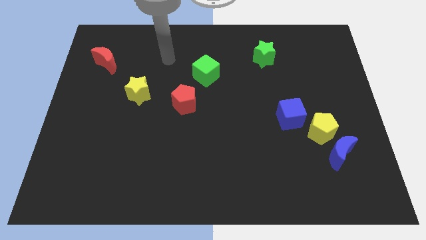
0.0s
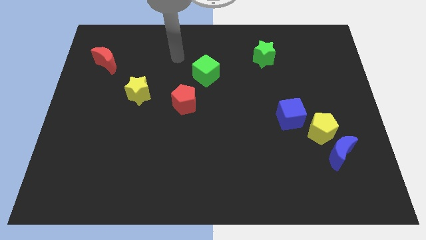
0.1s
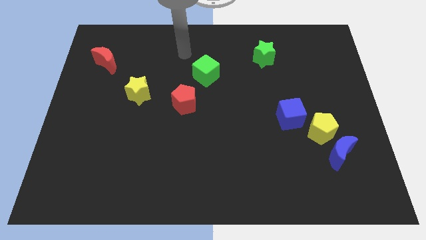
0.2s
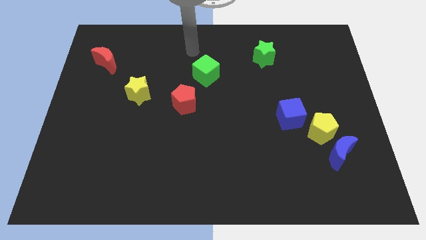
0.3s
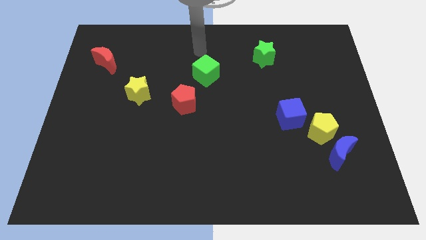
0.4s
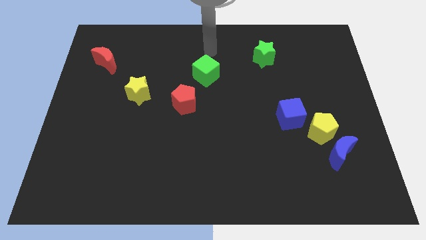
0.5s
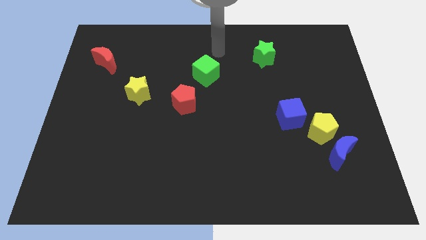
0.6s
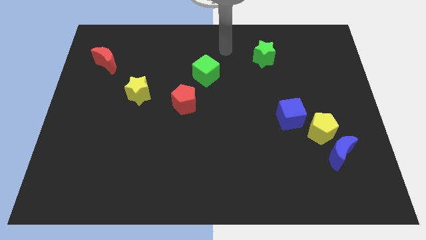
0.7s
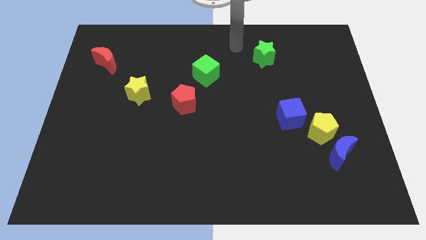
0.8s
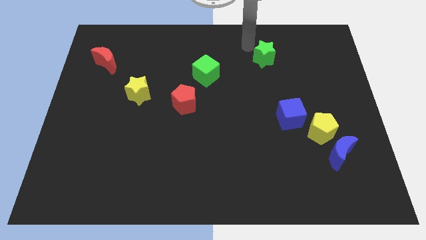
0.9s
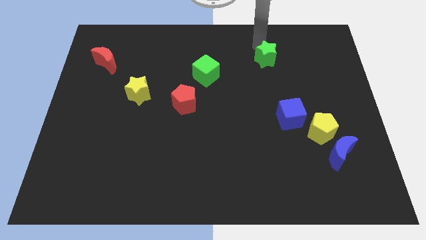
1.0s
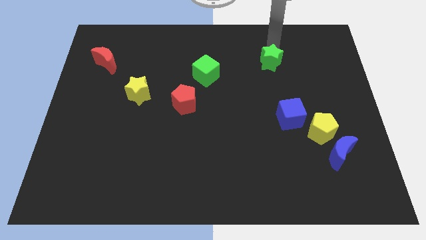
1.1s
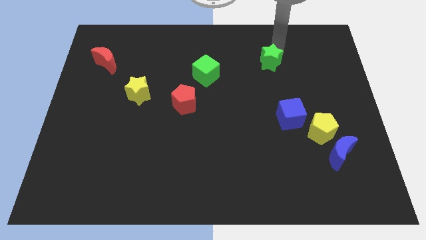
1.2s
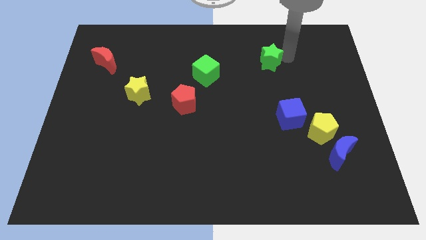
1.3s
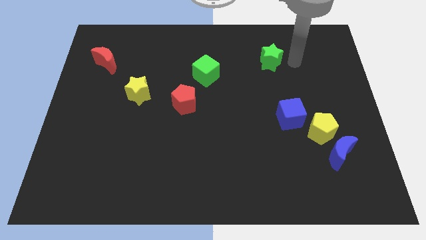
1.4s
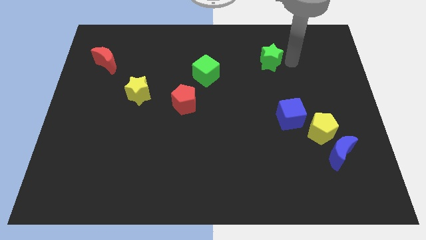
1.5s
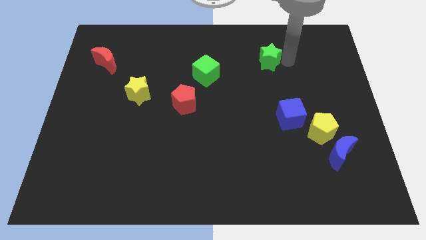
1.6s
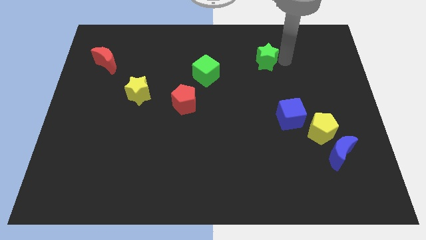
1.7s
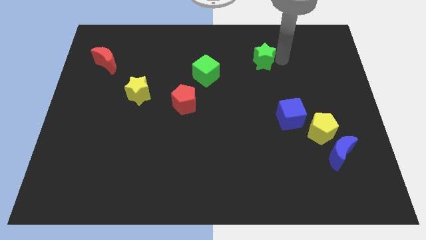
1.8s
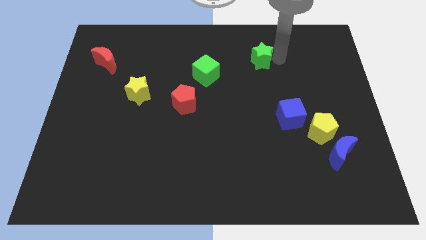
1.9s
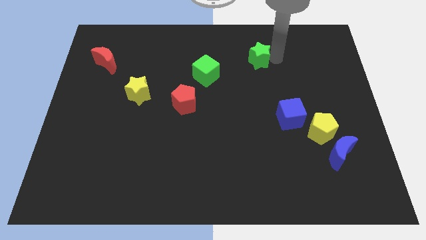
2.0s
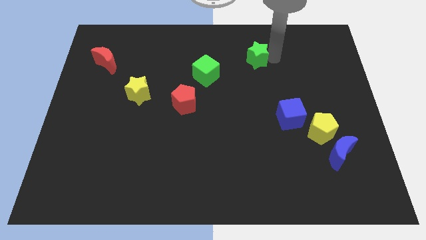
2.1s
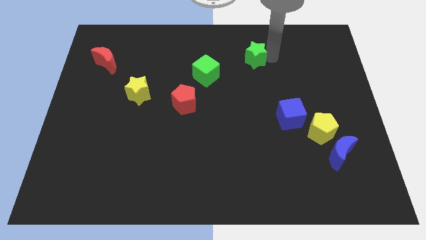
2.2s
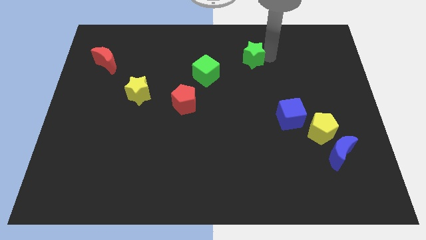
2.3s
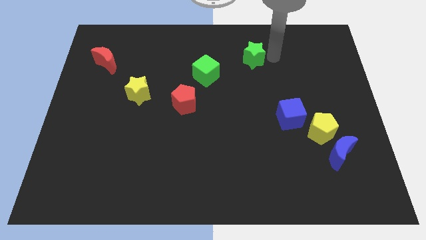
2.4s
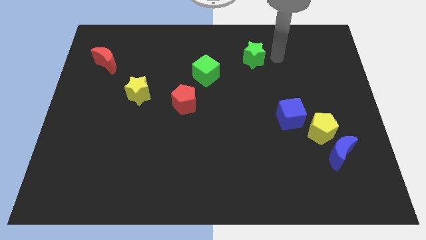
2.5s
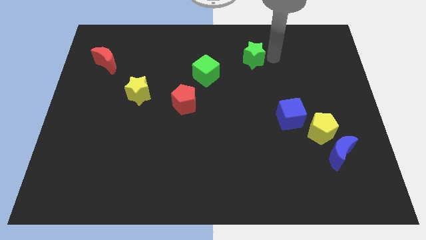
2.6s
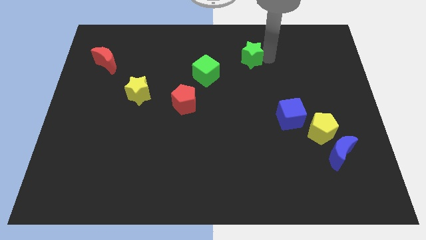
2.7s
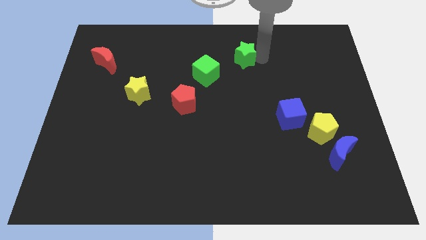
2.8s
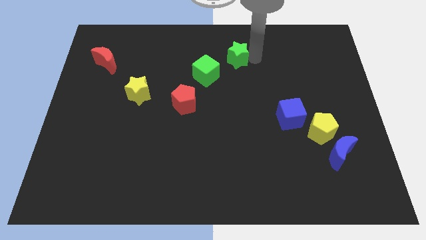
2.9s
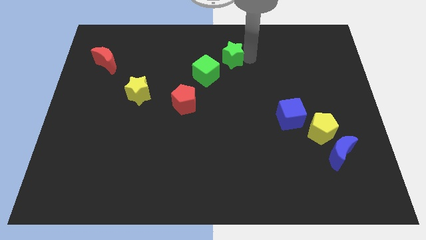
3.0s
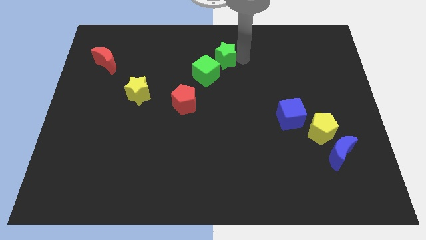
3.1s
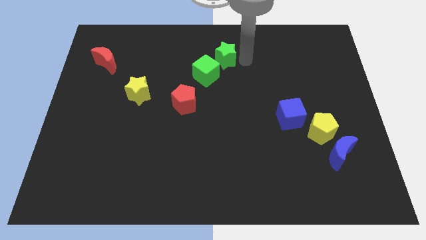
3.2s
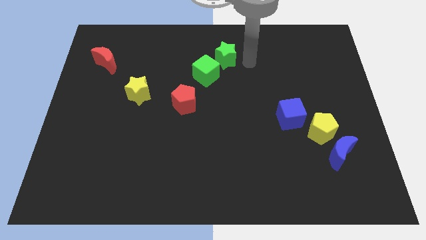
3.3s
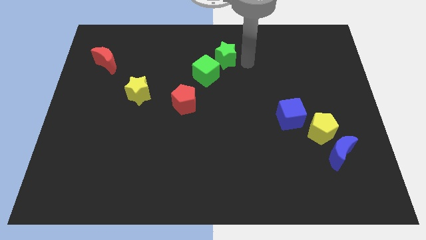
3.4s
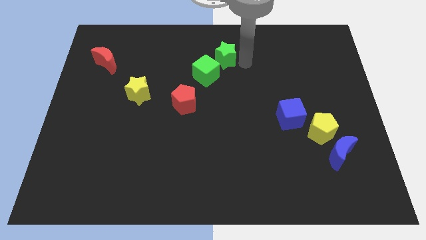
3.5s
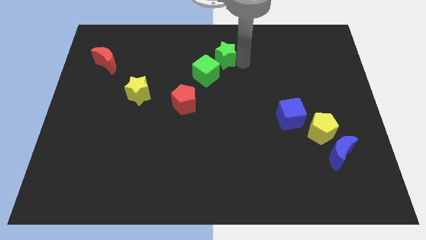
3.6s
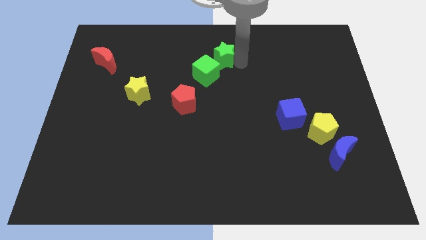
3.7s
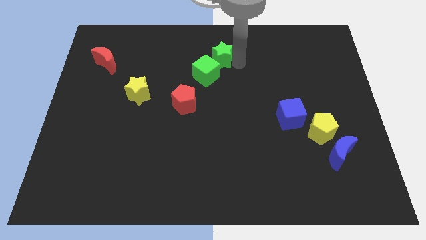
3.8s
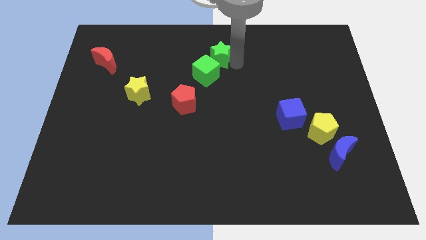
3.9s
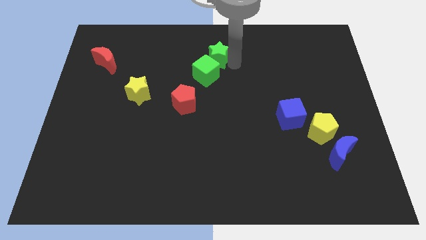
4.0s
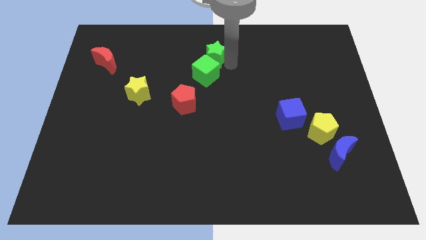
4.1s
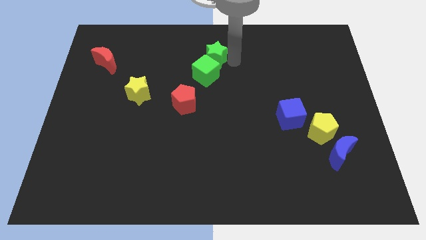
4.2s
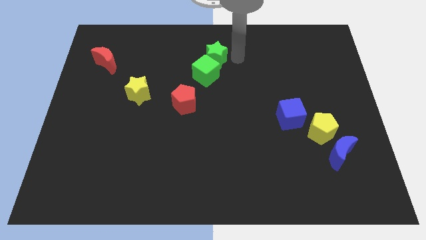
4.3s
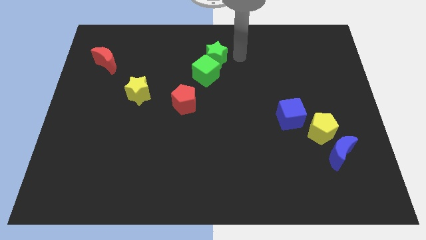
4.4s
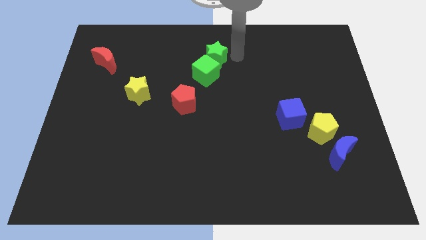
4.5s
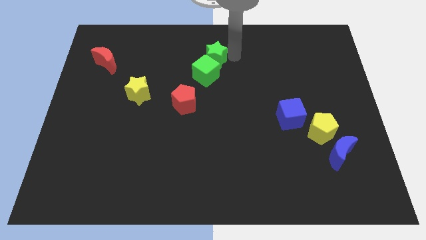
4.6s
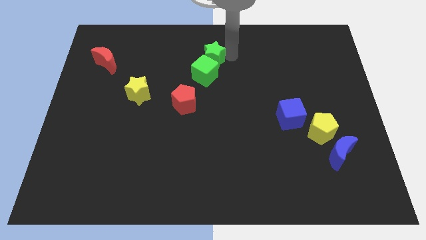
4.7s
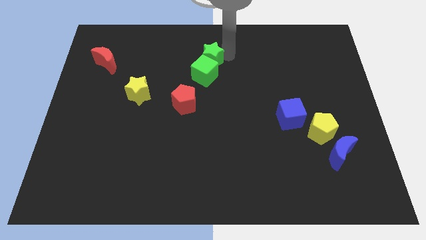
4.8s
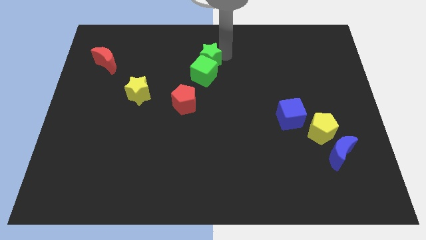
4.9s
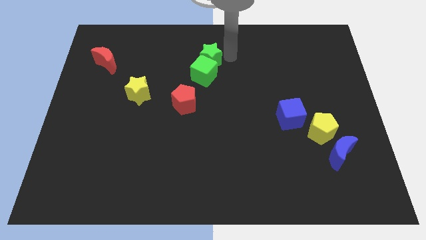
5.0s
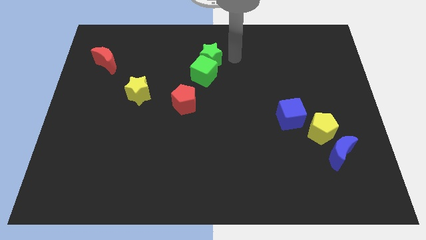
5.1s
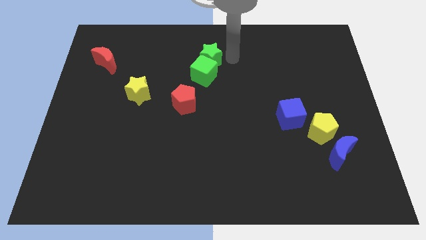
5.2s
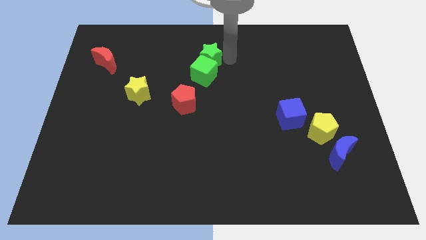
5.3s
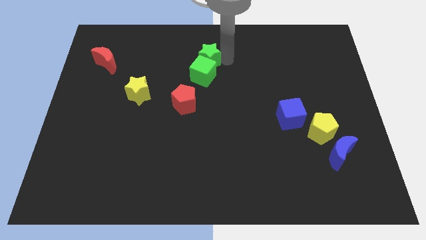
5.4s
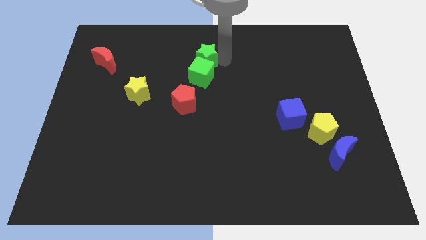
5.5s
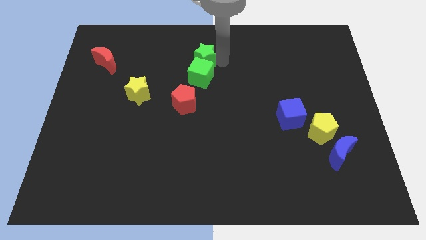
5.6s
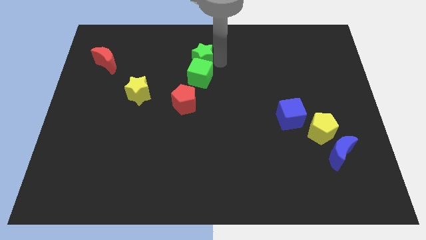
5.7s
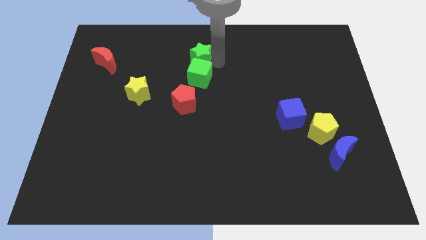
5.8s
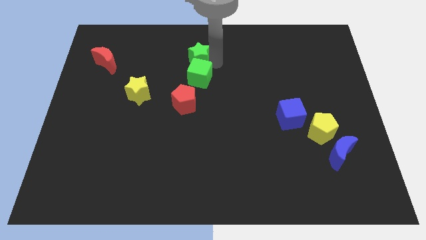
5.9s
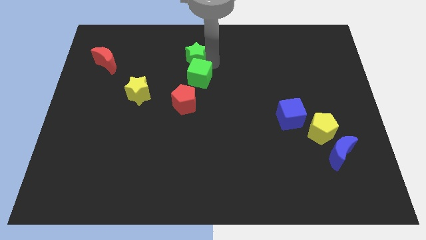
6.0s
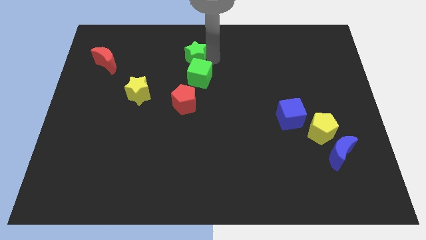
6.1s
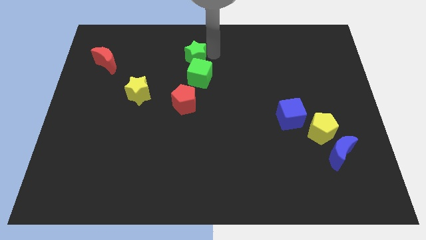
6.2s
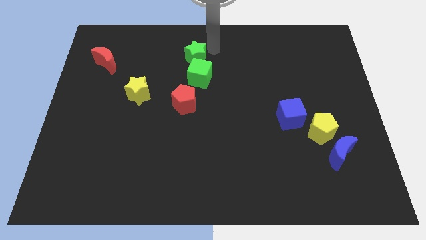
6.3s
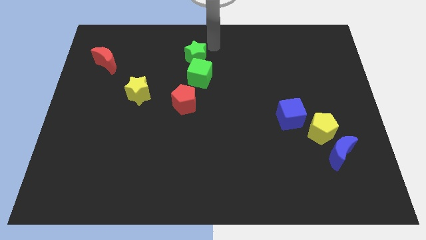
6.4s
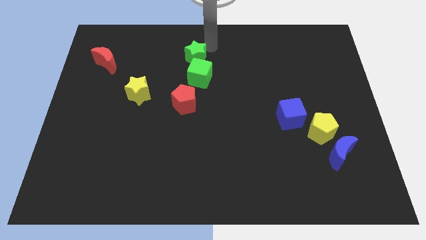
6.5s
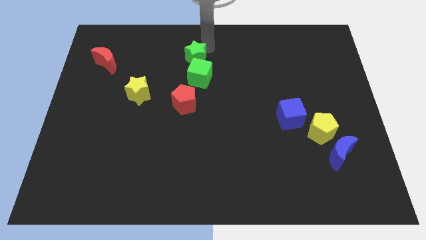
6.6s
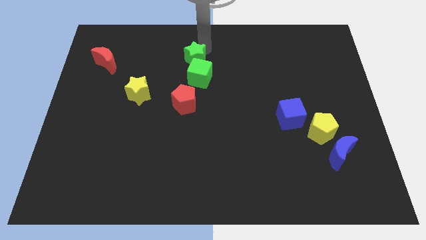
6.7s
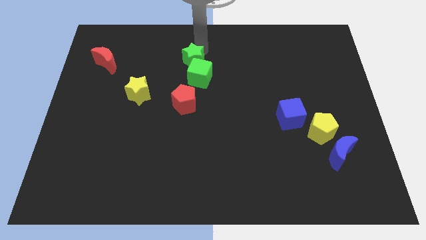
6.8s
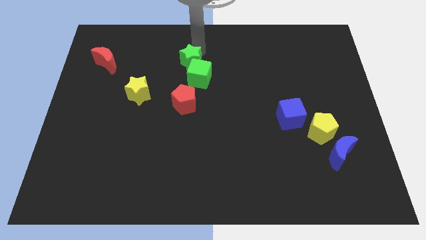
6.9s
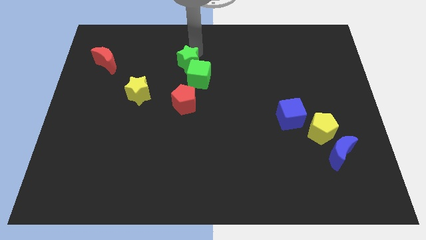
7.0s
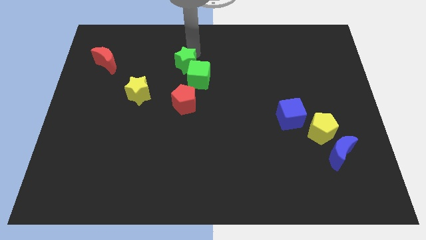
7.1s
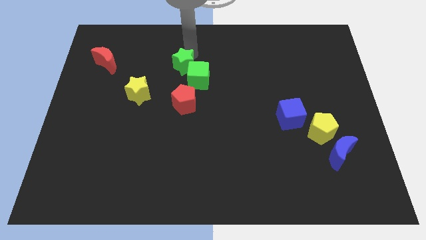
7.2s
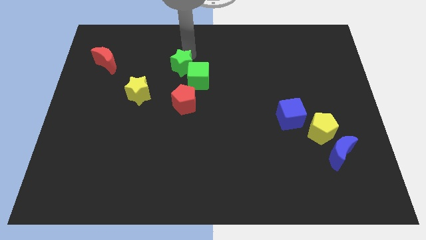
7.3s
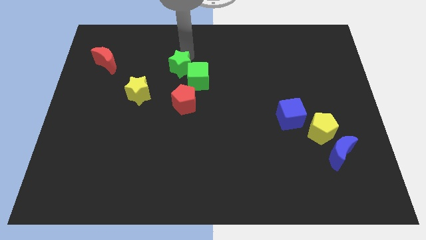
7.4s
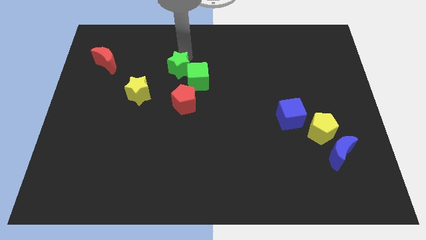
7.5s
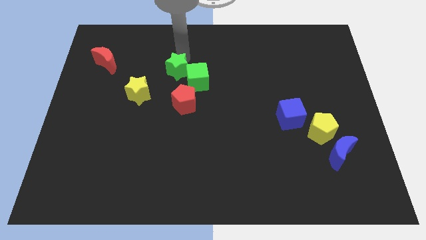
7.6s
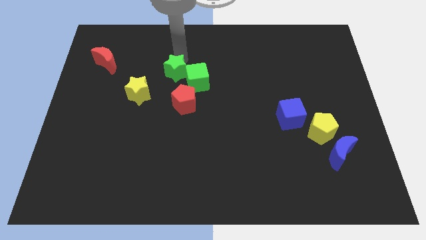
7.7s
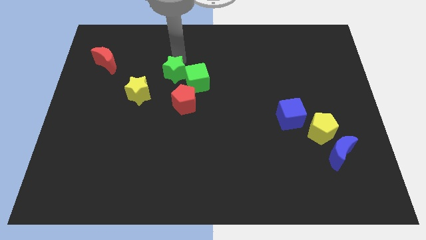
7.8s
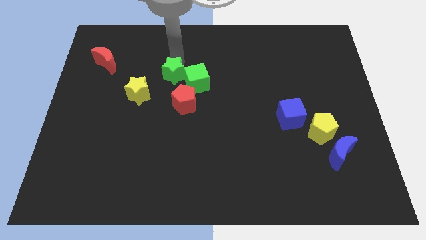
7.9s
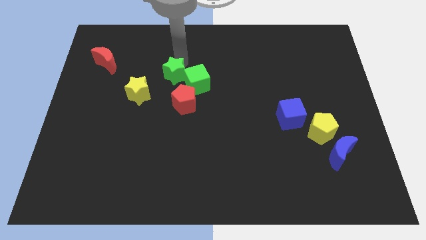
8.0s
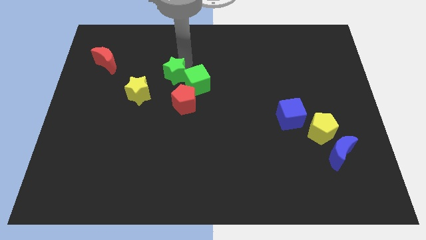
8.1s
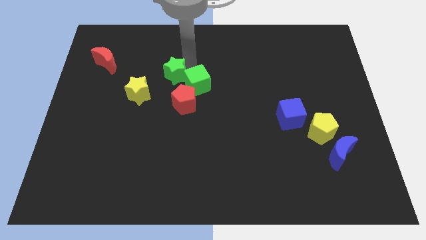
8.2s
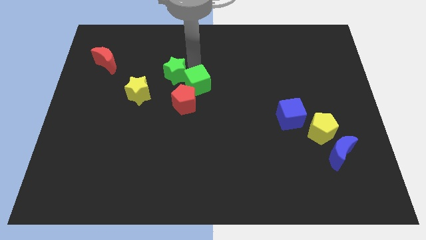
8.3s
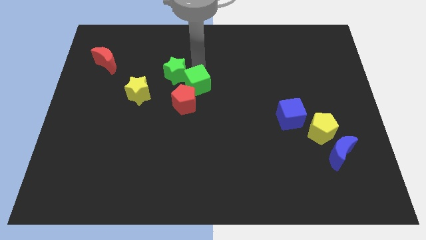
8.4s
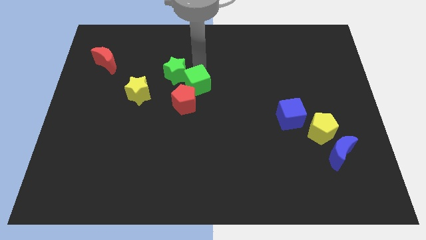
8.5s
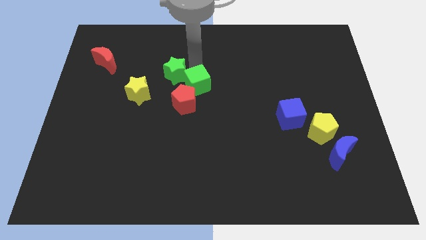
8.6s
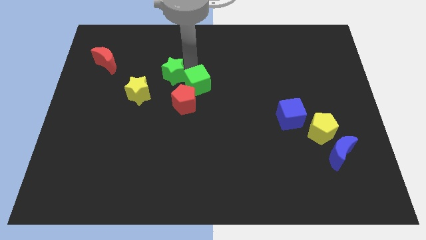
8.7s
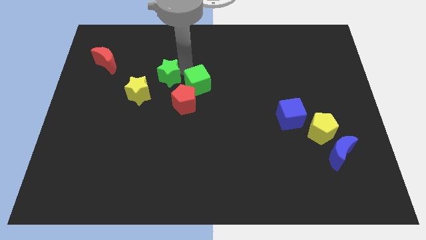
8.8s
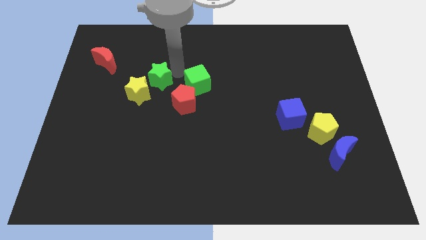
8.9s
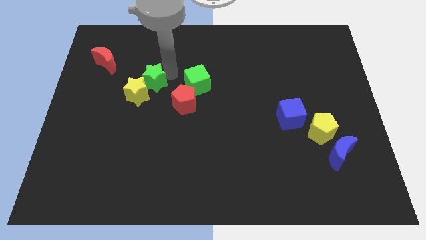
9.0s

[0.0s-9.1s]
push the green star to the yellow star
